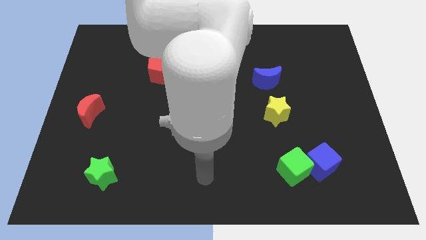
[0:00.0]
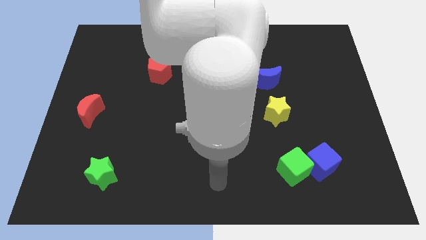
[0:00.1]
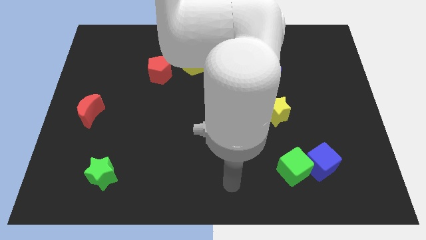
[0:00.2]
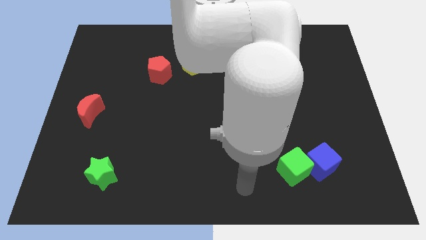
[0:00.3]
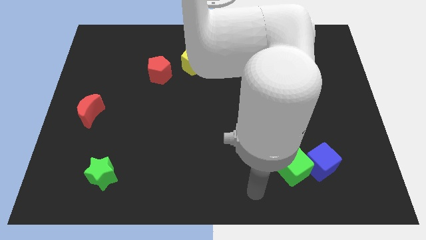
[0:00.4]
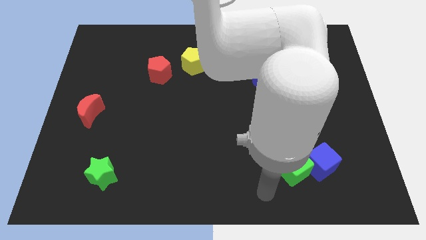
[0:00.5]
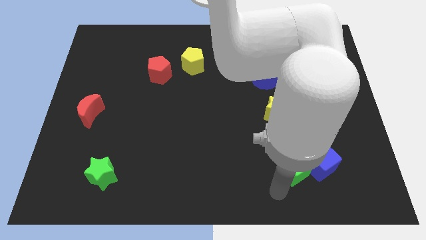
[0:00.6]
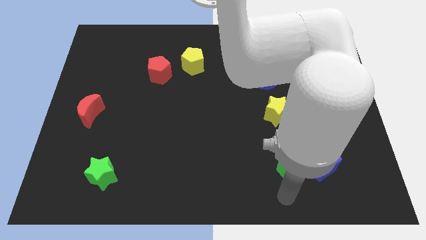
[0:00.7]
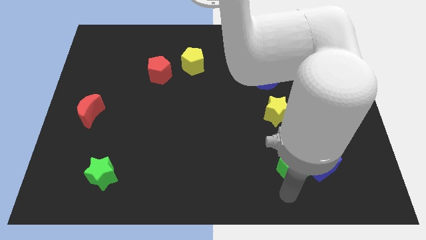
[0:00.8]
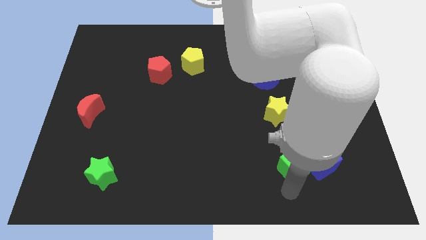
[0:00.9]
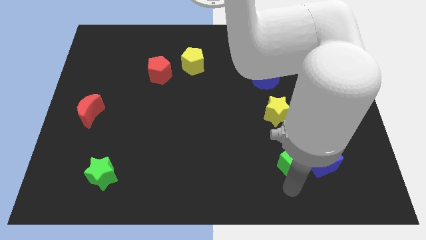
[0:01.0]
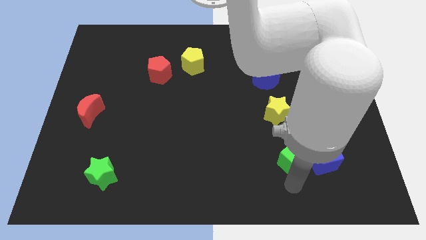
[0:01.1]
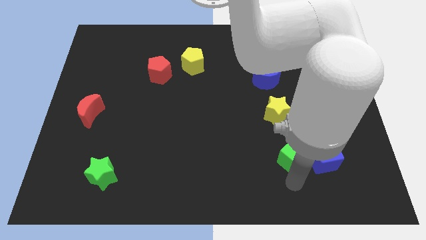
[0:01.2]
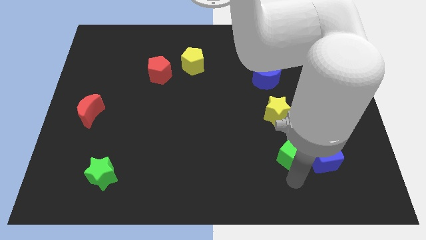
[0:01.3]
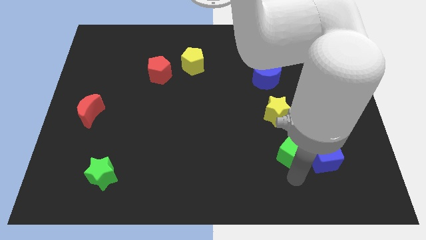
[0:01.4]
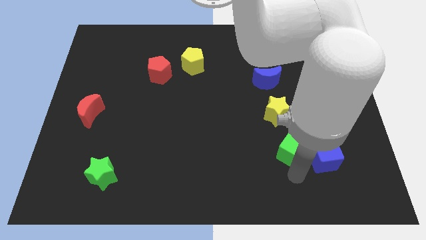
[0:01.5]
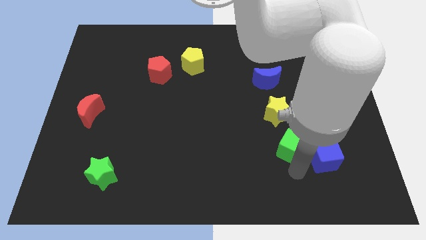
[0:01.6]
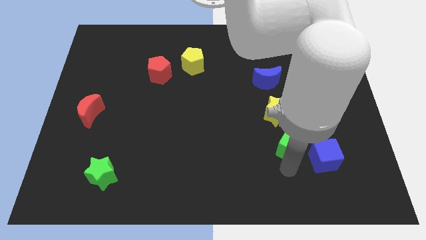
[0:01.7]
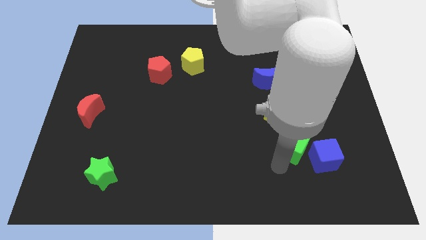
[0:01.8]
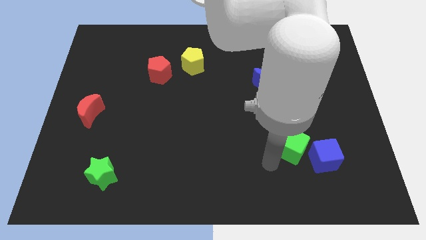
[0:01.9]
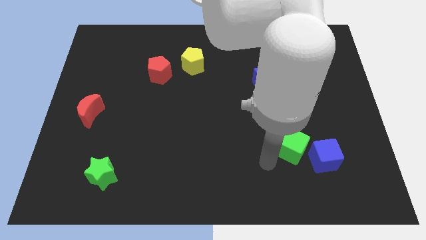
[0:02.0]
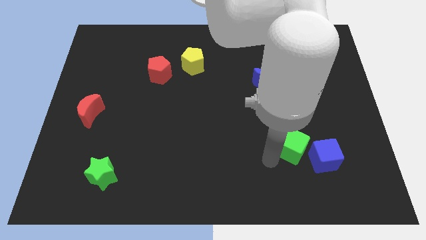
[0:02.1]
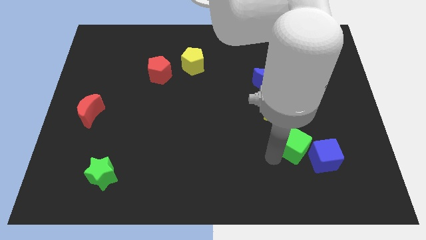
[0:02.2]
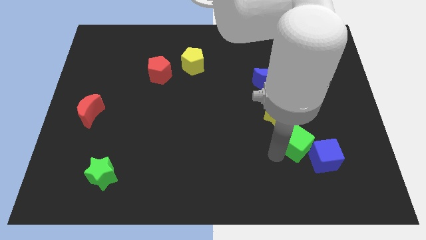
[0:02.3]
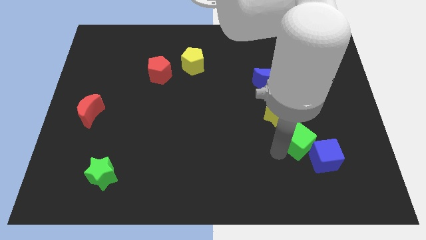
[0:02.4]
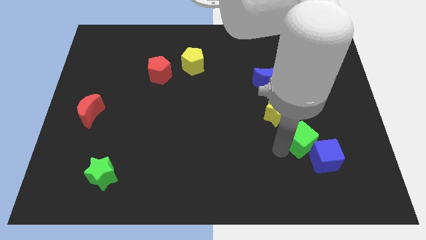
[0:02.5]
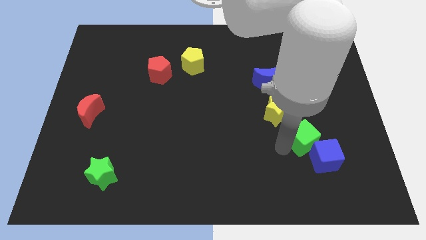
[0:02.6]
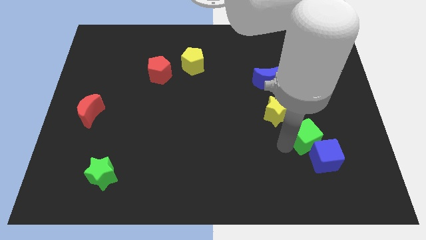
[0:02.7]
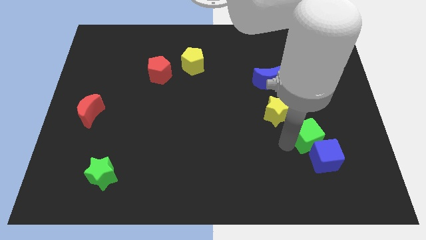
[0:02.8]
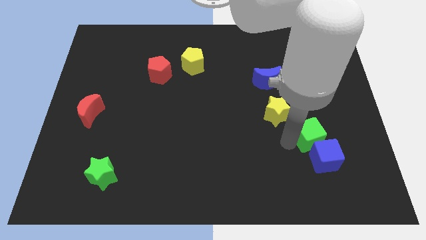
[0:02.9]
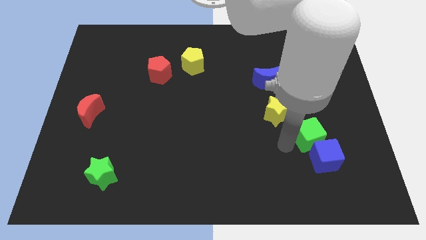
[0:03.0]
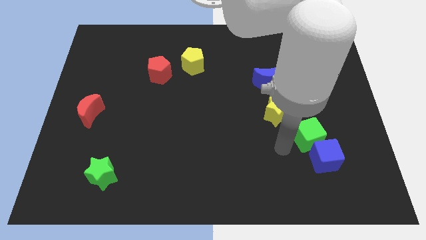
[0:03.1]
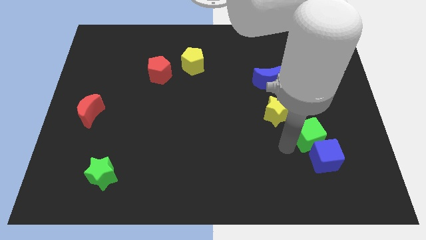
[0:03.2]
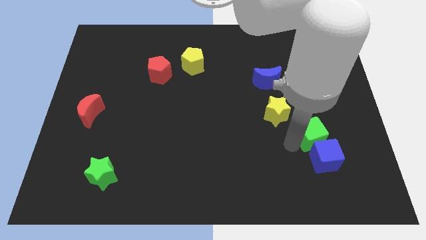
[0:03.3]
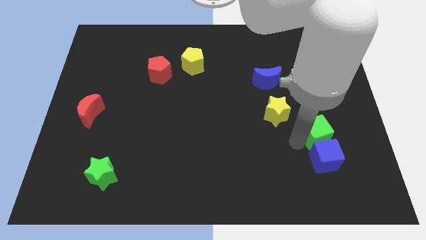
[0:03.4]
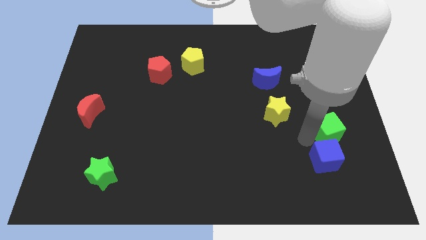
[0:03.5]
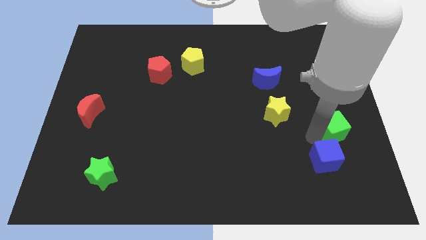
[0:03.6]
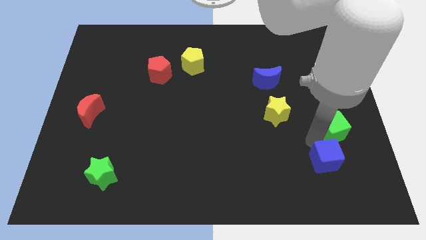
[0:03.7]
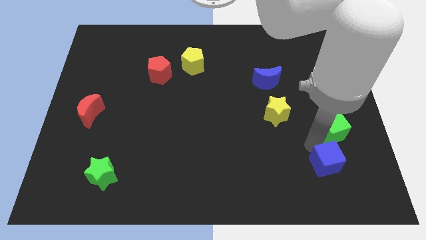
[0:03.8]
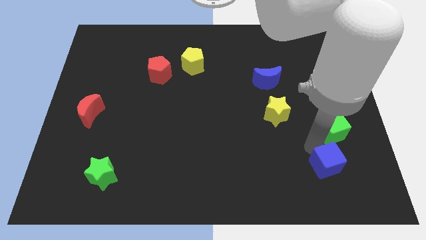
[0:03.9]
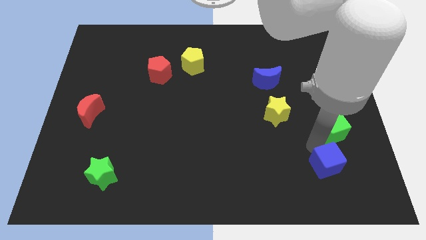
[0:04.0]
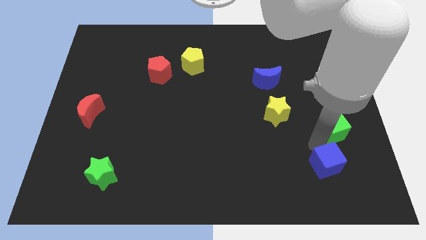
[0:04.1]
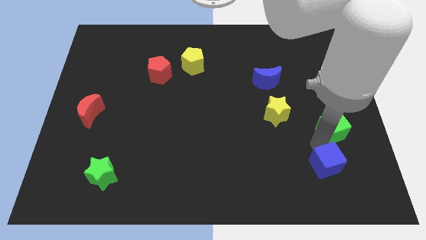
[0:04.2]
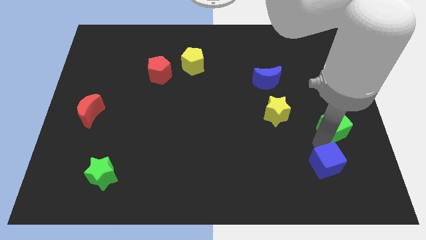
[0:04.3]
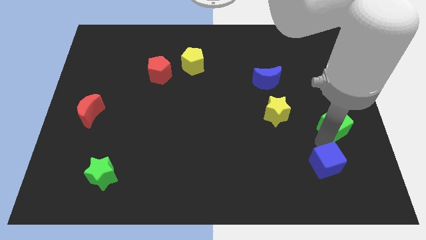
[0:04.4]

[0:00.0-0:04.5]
push the green cube to the center right

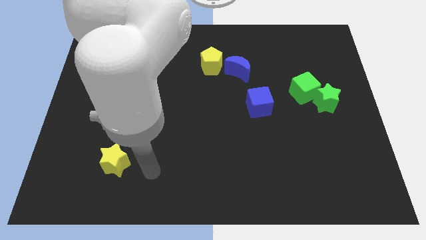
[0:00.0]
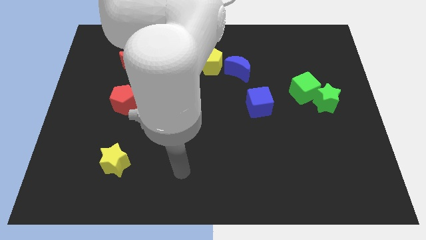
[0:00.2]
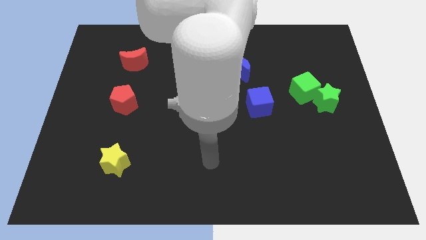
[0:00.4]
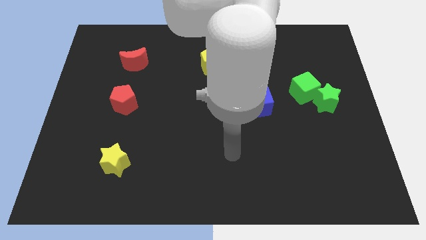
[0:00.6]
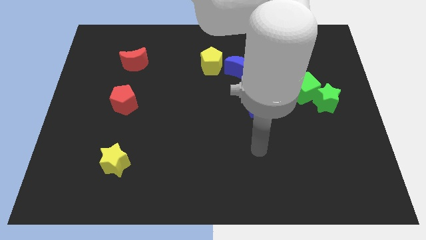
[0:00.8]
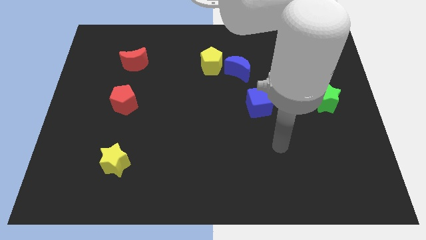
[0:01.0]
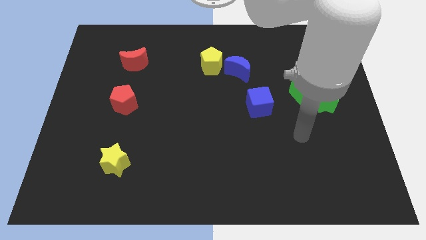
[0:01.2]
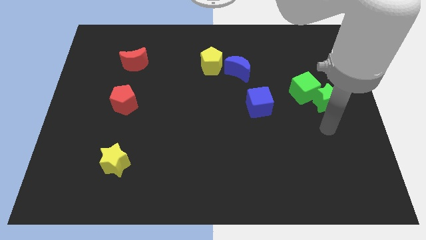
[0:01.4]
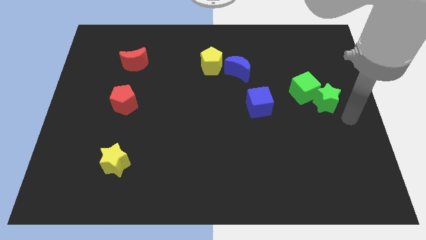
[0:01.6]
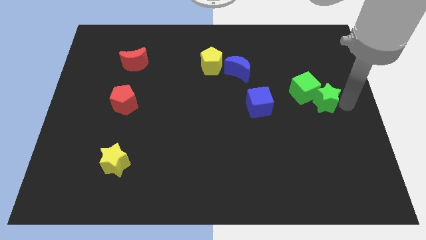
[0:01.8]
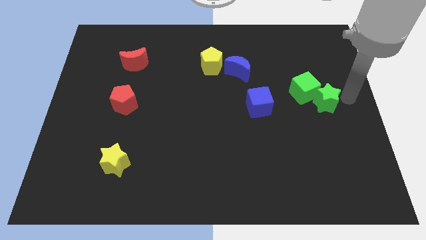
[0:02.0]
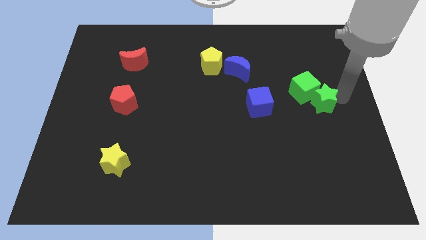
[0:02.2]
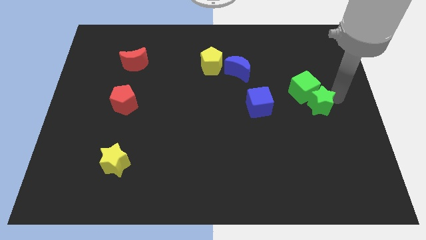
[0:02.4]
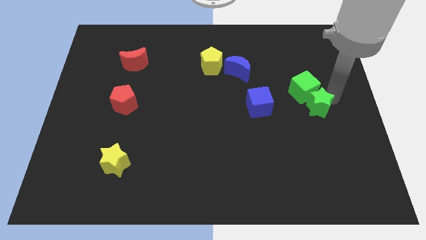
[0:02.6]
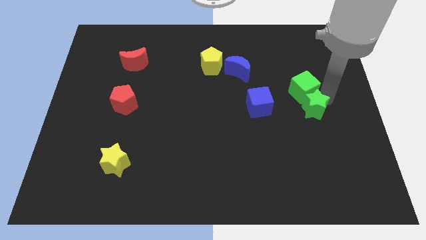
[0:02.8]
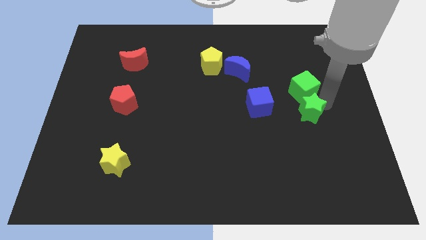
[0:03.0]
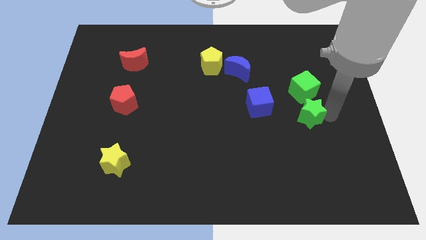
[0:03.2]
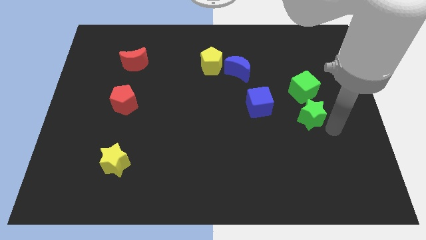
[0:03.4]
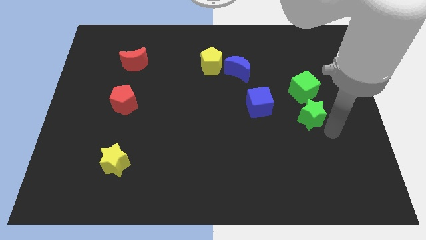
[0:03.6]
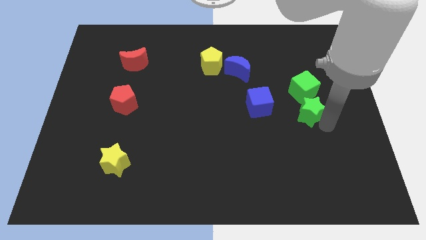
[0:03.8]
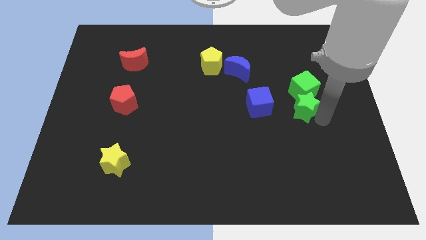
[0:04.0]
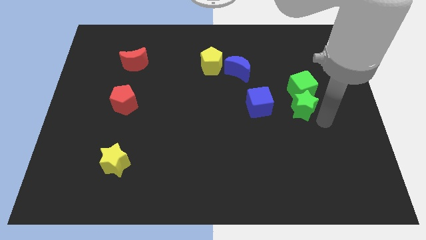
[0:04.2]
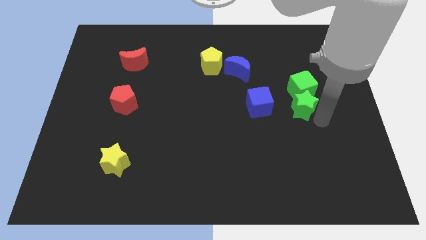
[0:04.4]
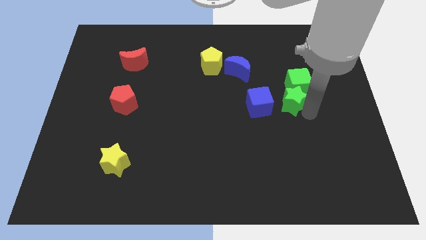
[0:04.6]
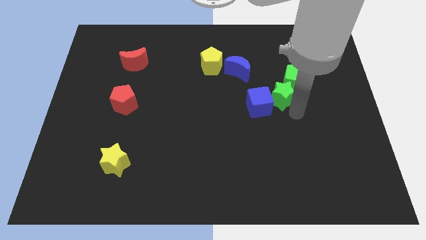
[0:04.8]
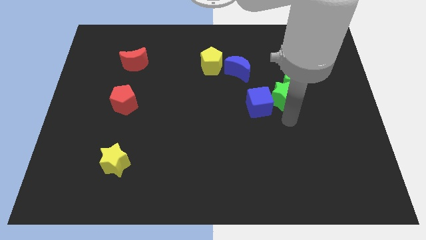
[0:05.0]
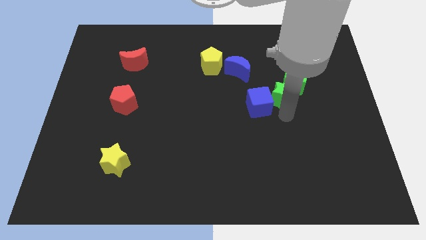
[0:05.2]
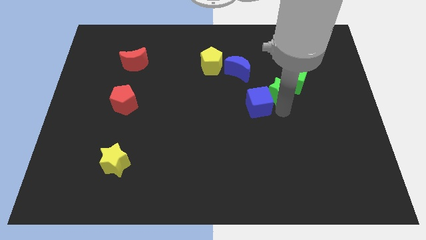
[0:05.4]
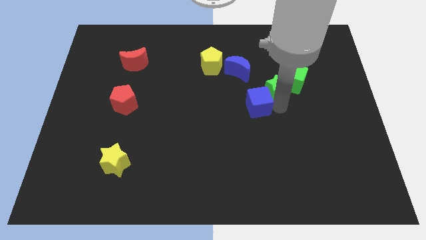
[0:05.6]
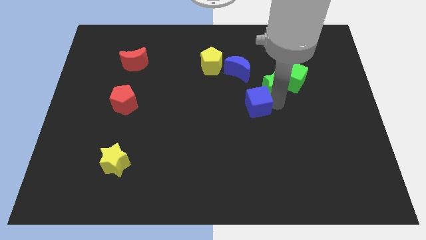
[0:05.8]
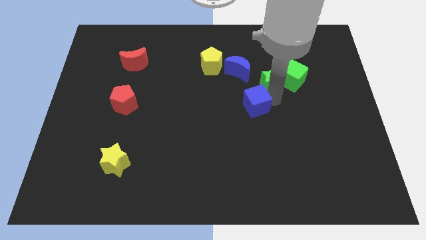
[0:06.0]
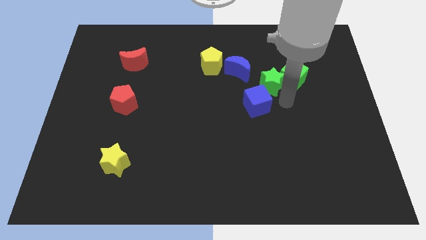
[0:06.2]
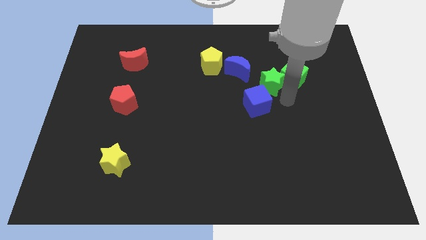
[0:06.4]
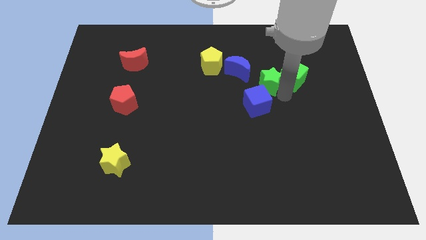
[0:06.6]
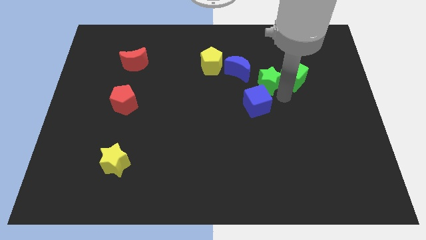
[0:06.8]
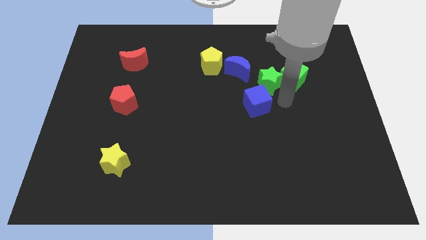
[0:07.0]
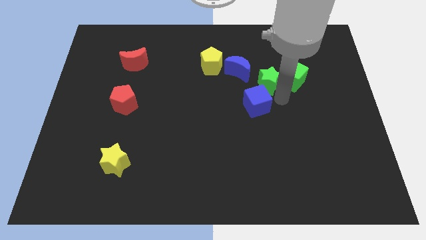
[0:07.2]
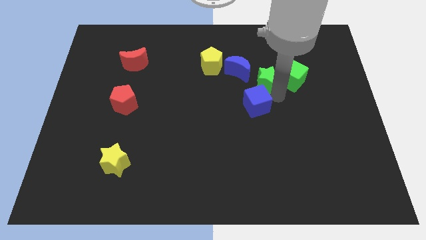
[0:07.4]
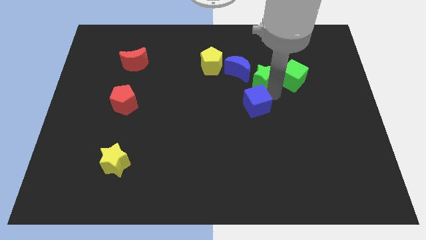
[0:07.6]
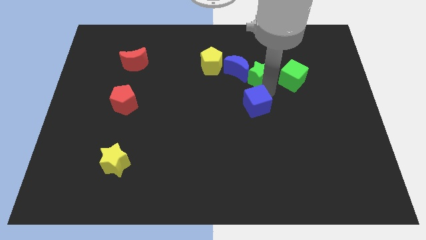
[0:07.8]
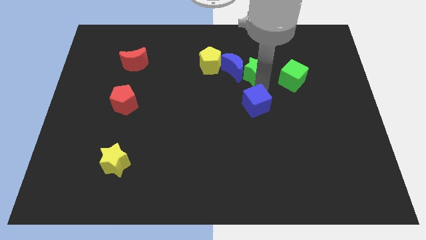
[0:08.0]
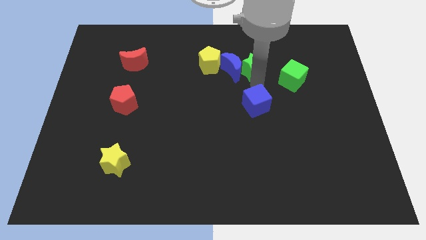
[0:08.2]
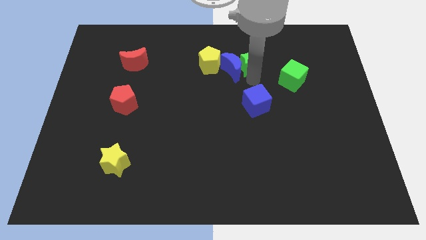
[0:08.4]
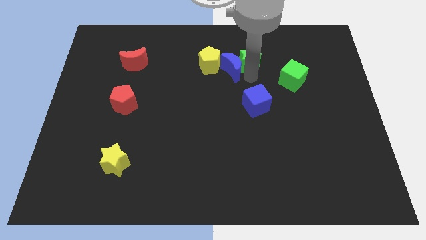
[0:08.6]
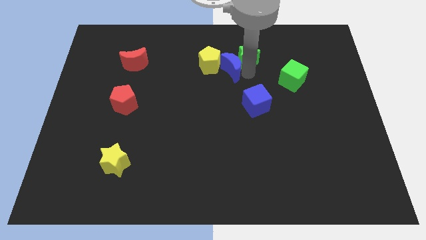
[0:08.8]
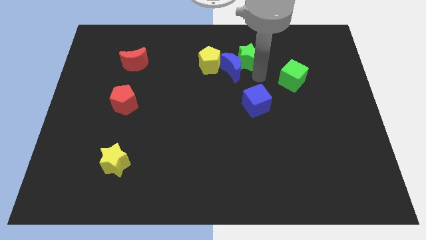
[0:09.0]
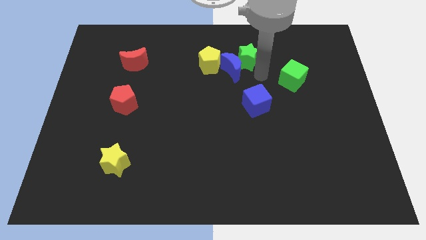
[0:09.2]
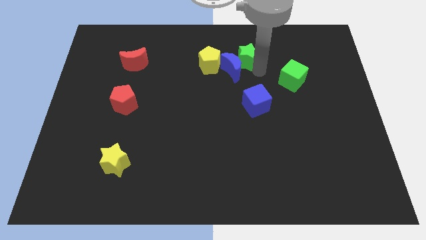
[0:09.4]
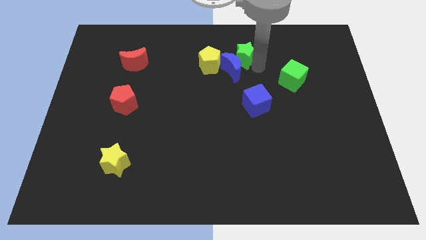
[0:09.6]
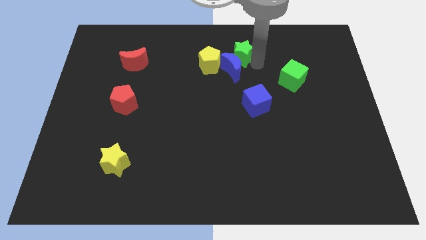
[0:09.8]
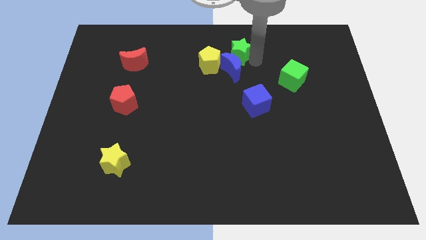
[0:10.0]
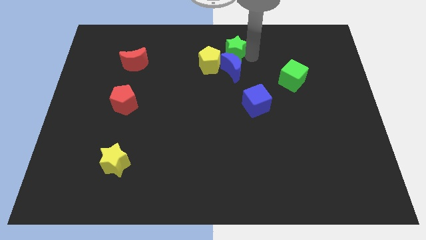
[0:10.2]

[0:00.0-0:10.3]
put the green star to the towards your base
